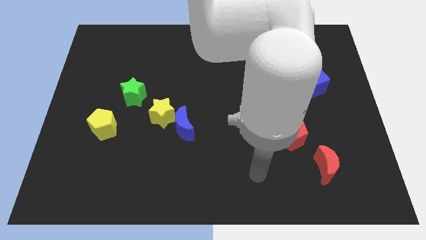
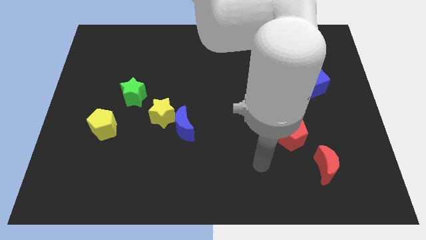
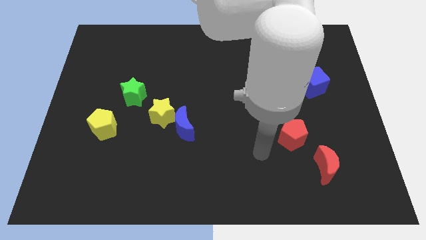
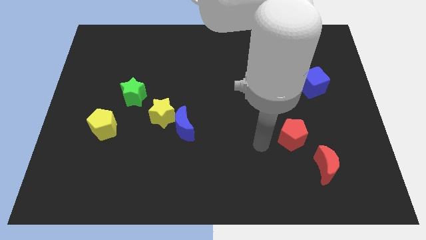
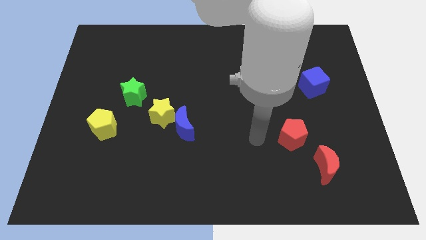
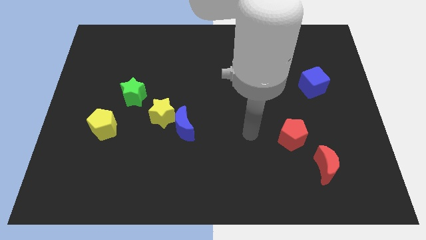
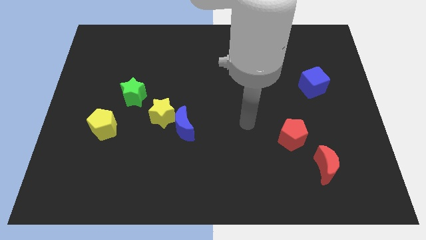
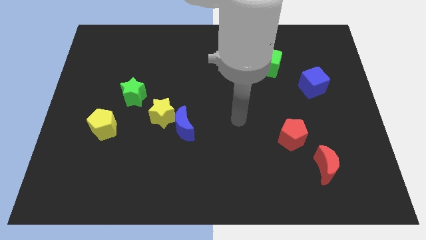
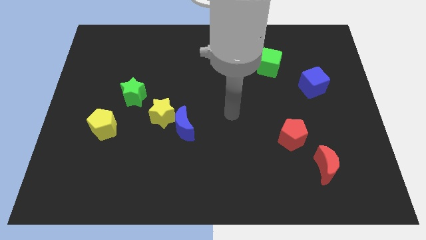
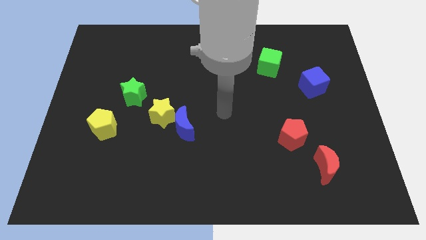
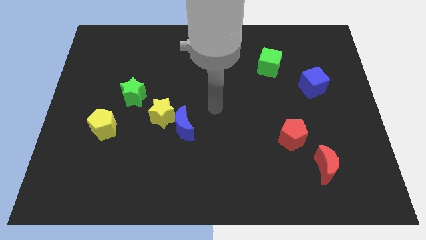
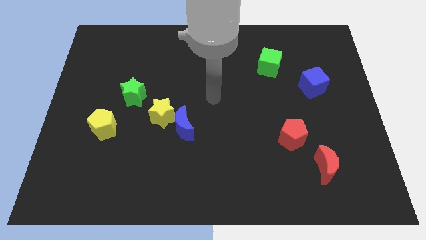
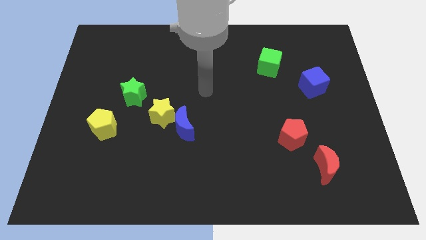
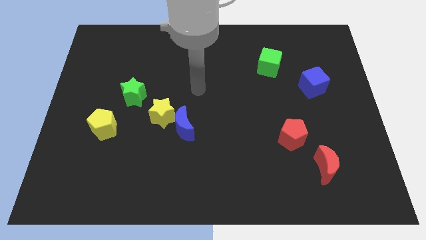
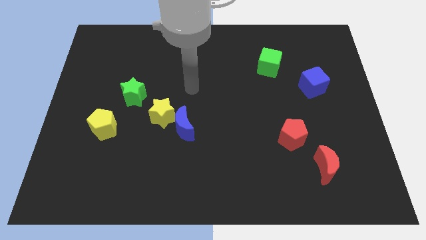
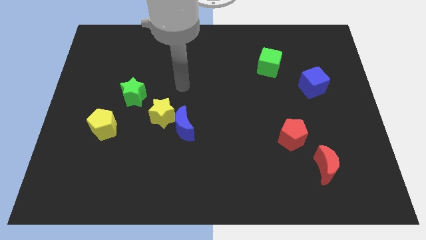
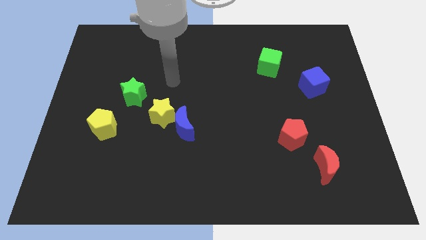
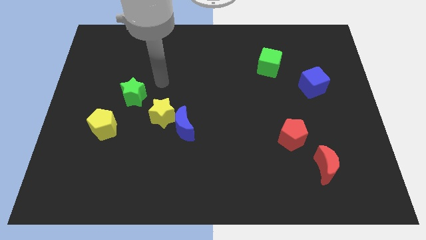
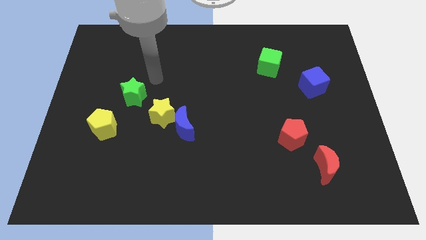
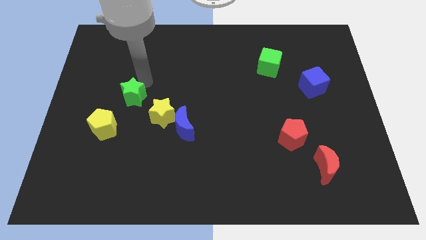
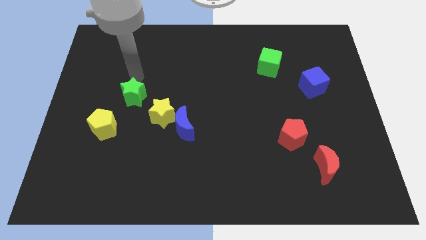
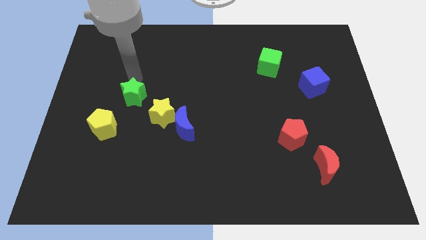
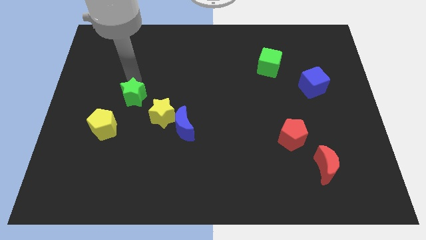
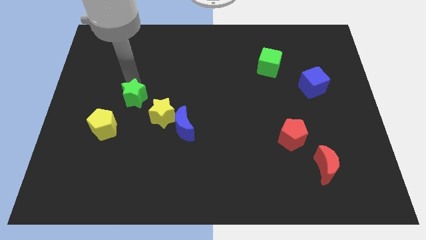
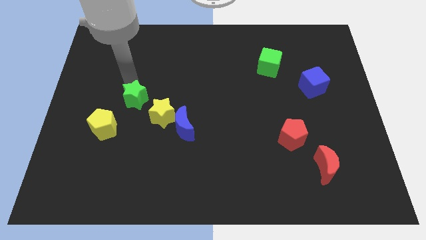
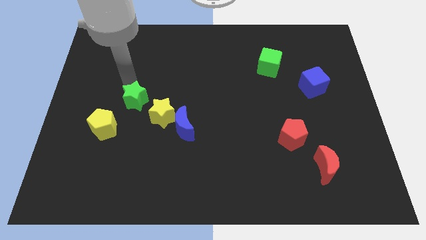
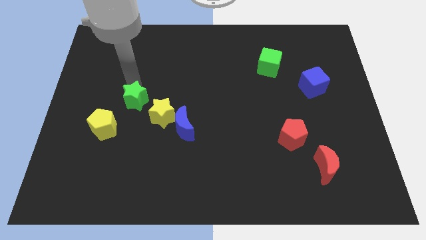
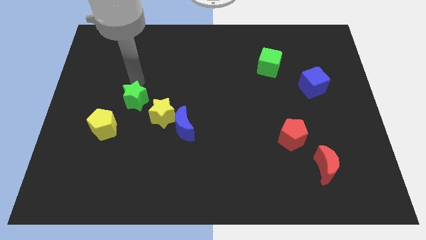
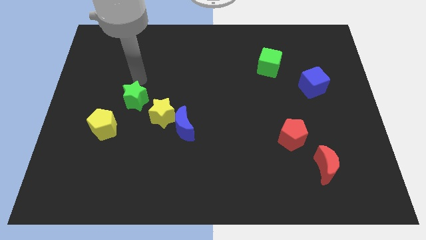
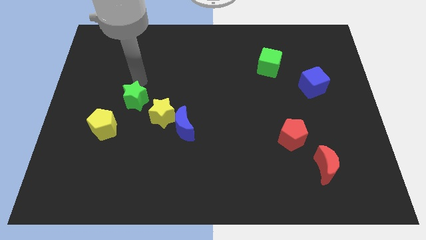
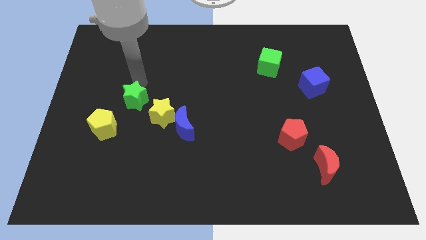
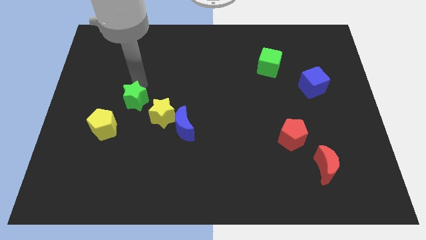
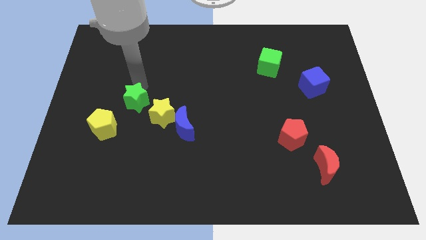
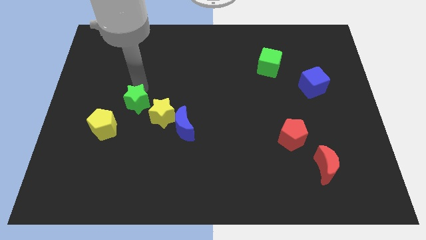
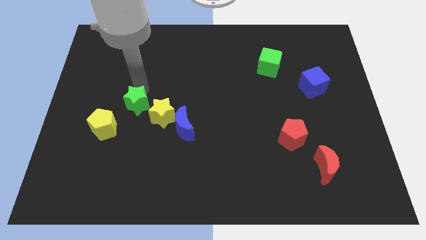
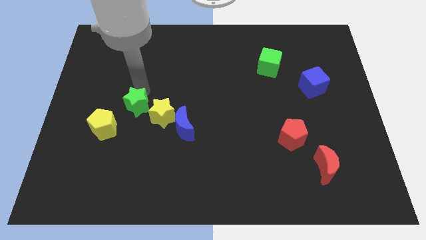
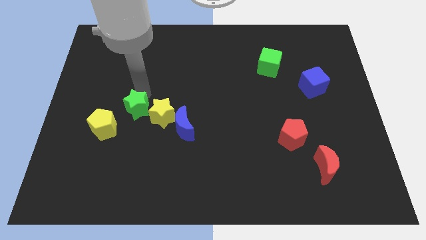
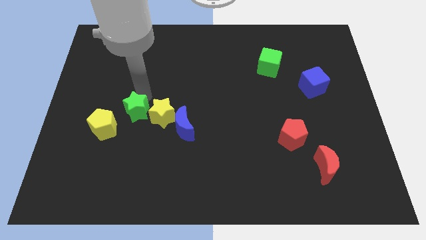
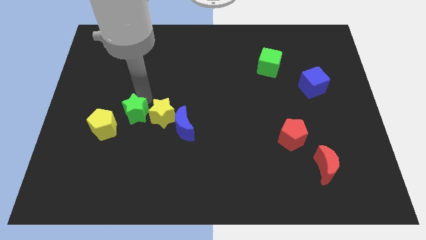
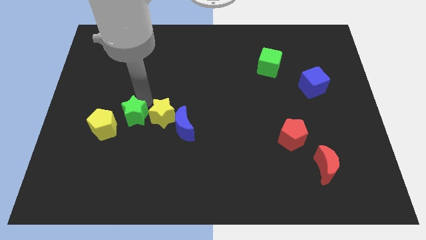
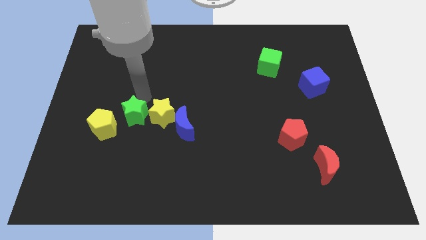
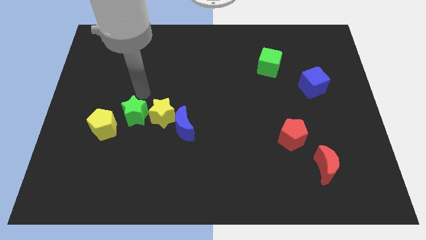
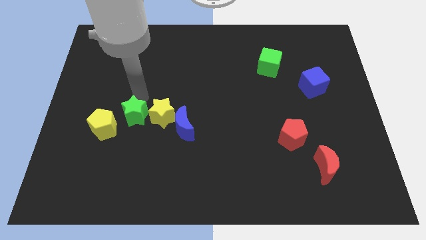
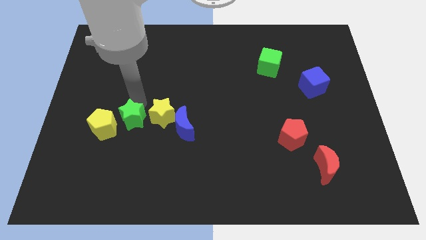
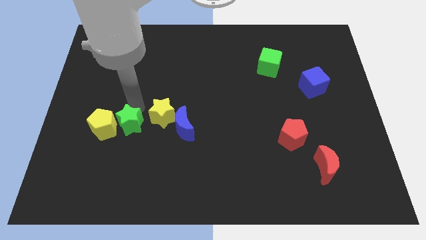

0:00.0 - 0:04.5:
move the green star down a bit

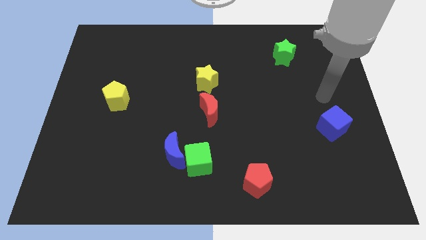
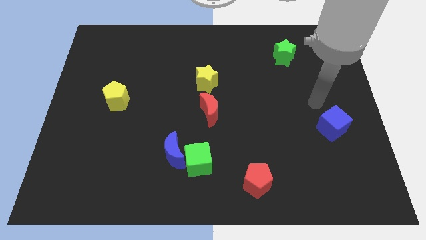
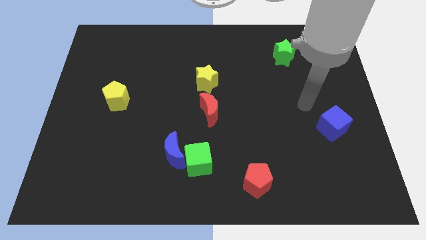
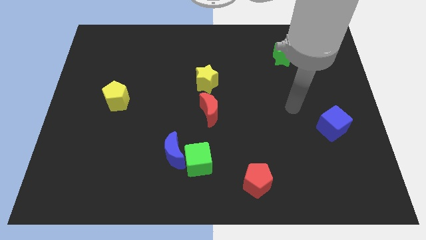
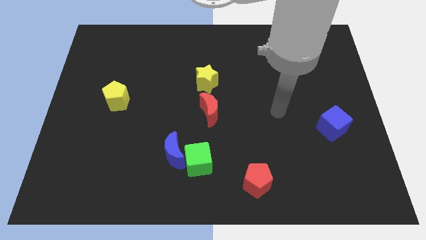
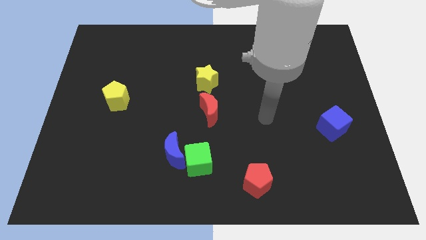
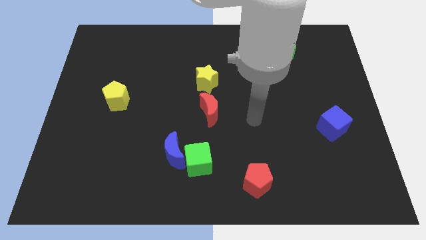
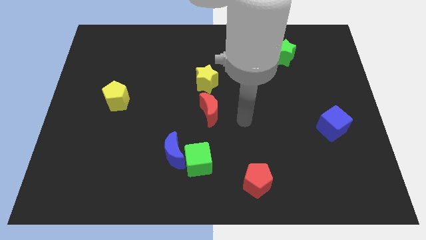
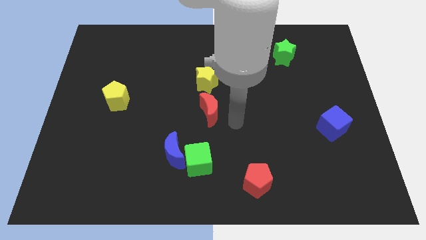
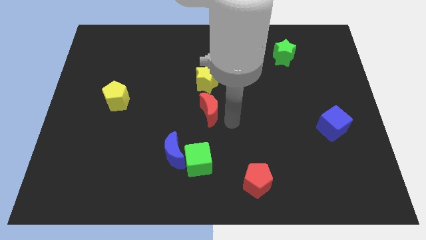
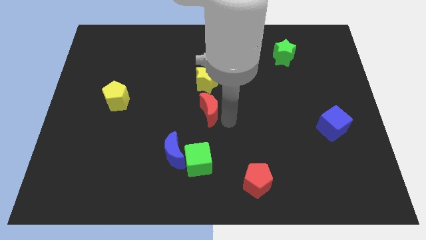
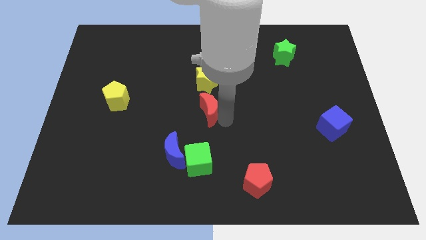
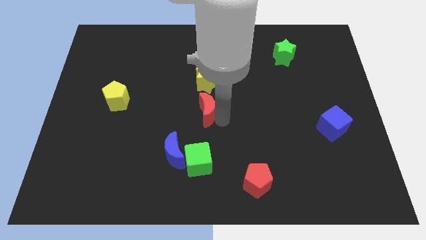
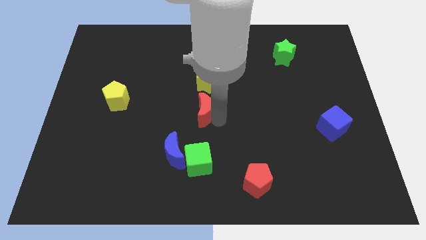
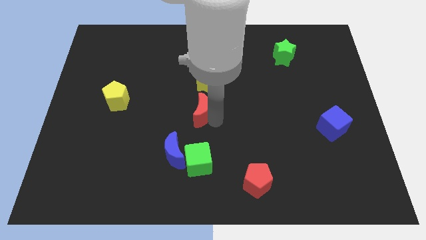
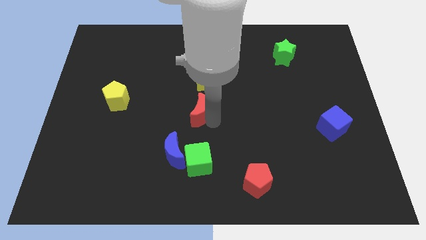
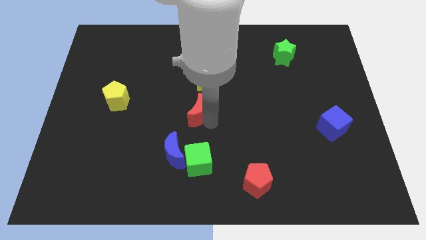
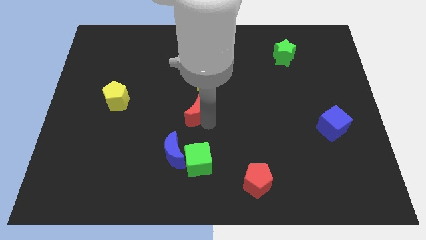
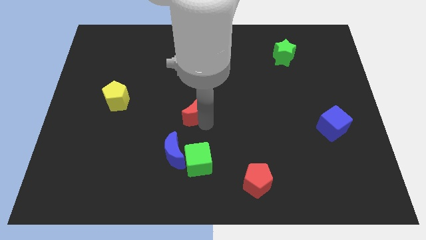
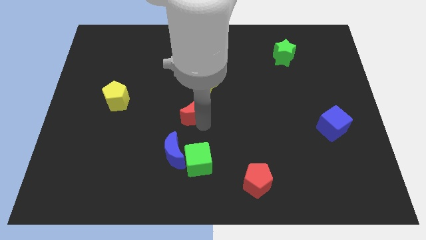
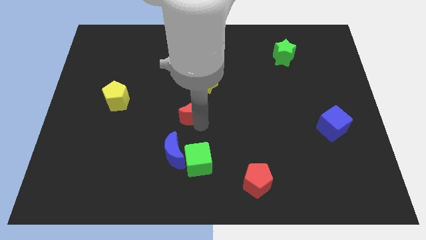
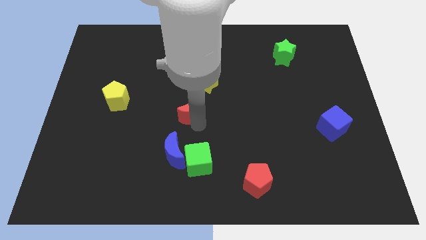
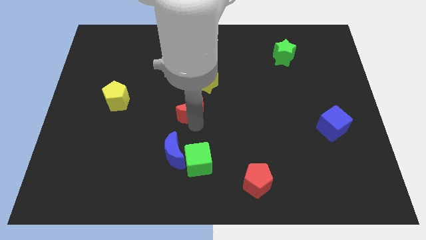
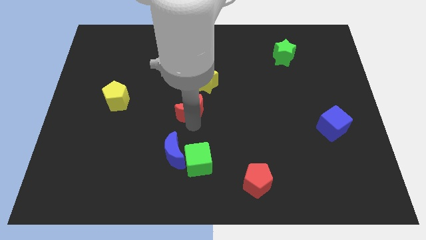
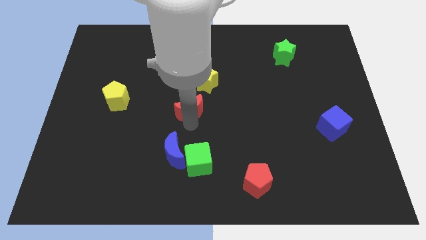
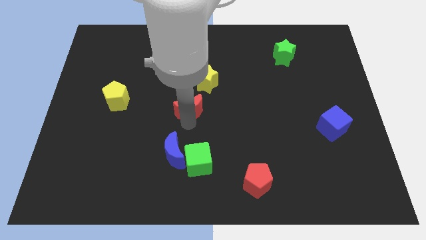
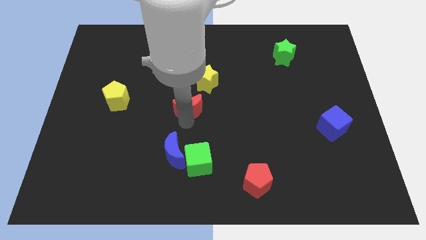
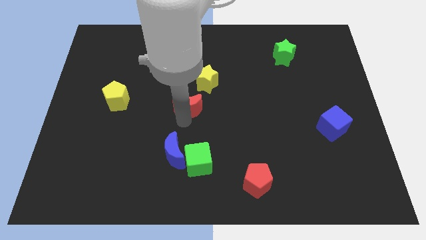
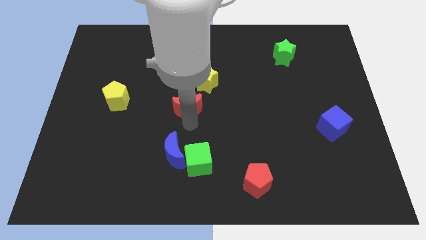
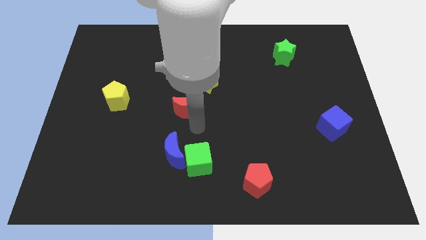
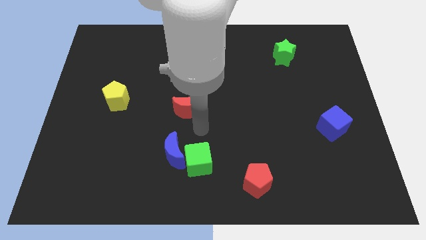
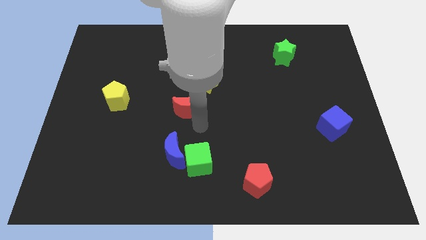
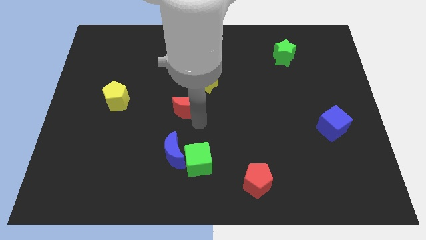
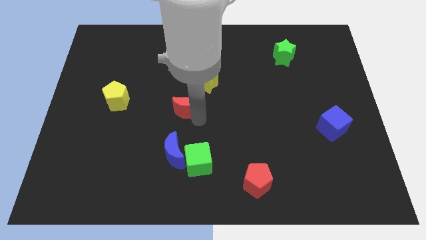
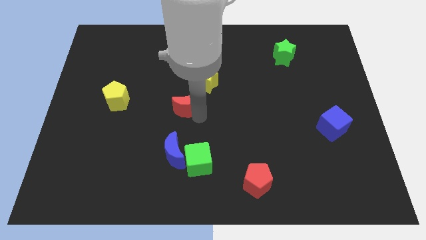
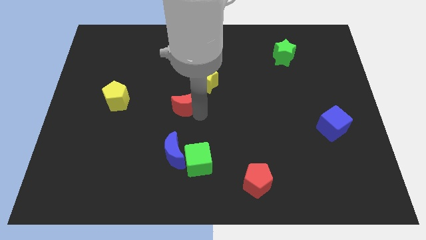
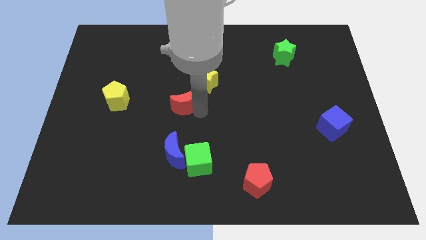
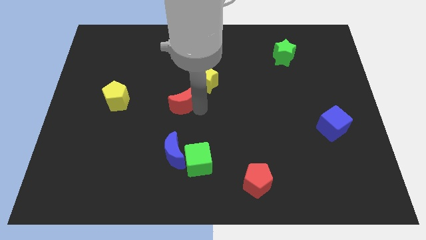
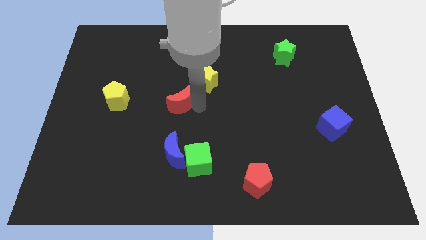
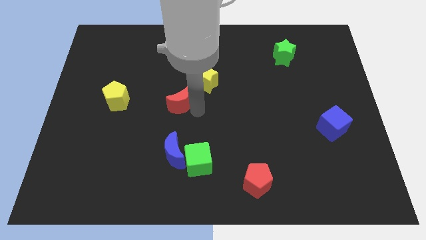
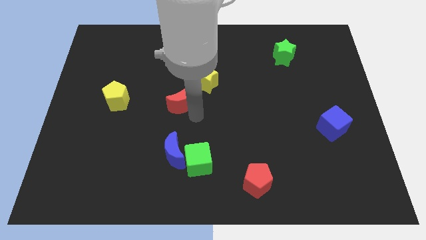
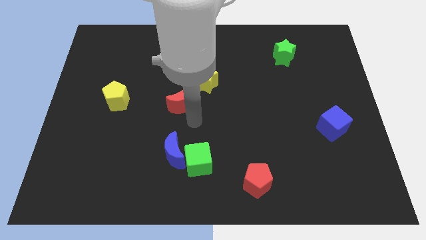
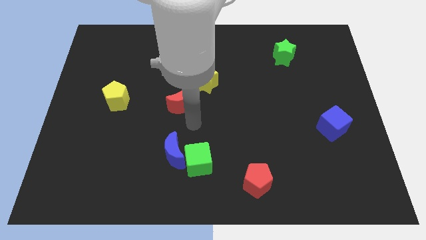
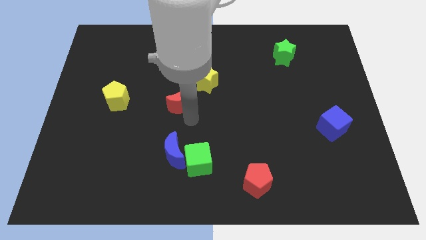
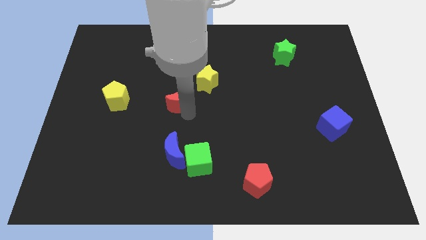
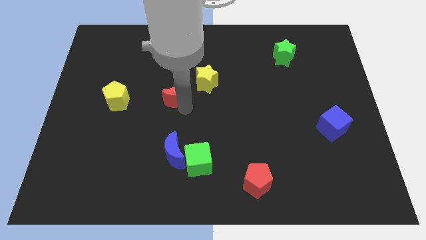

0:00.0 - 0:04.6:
push the red moon a little bit upwards and then left
